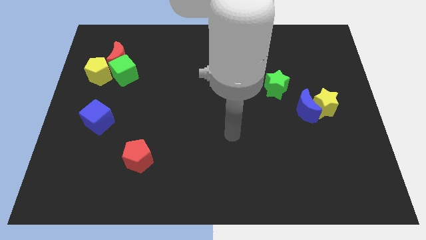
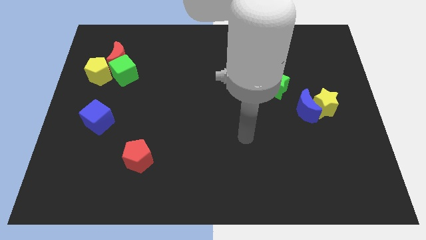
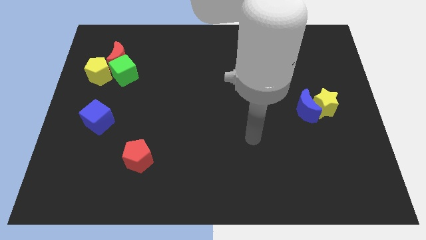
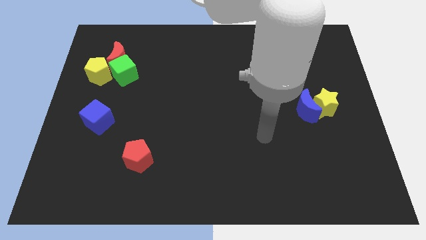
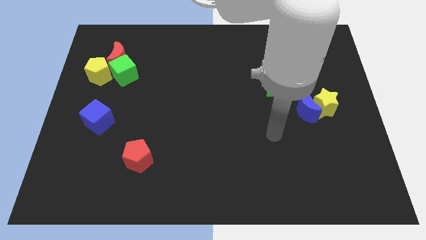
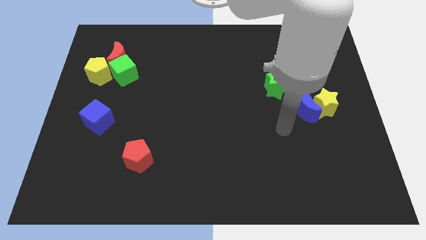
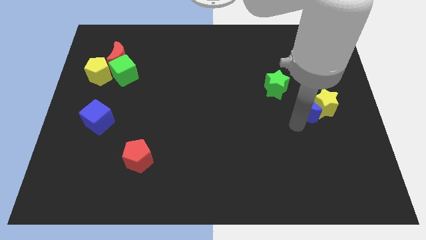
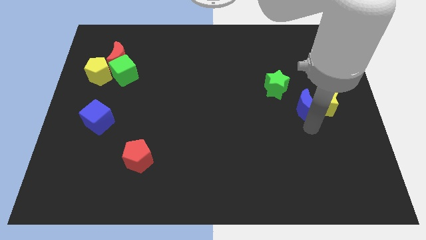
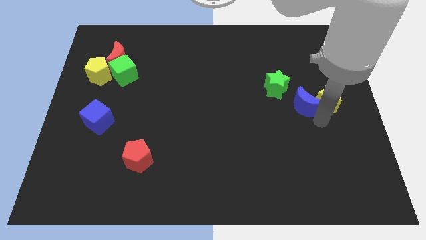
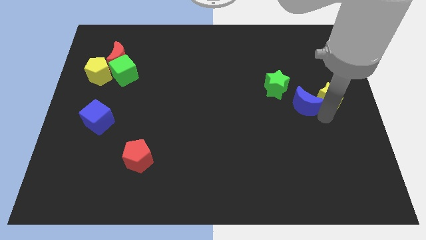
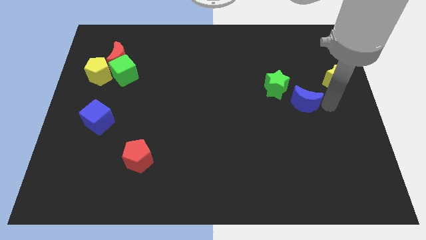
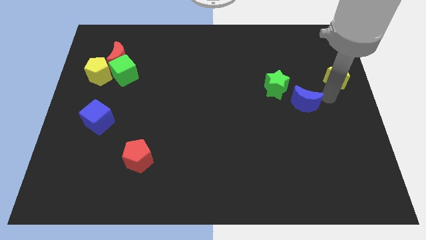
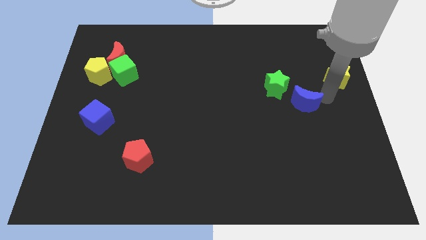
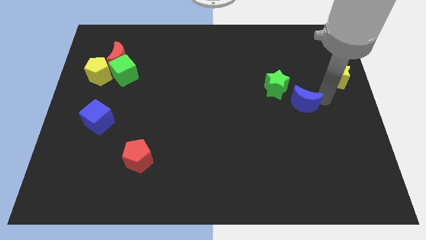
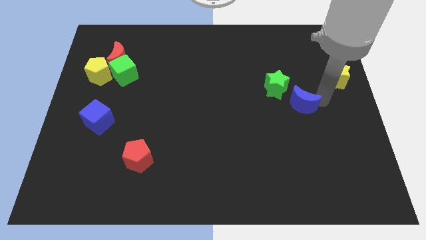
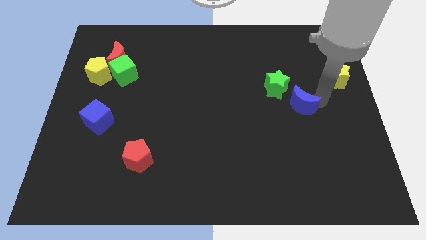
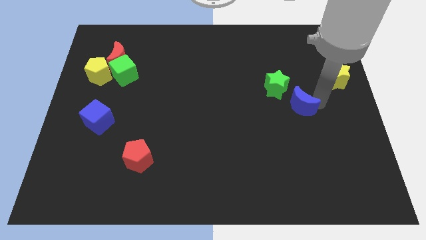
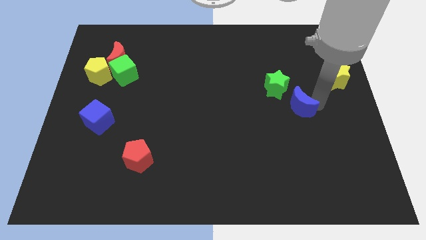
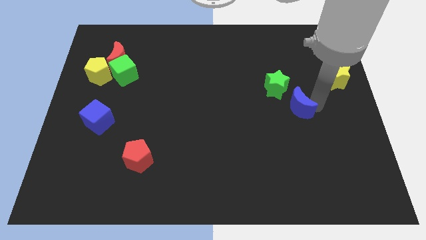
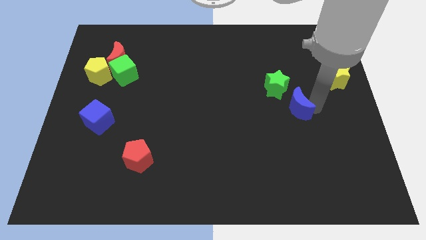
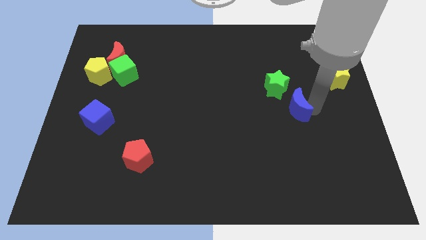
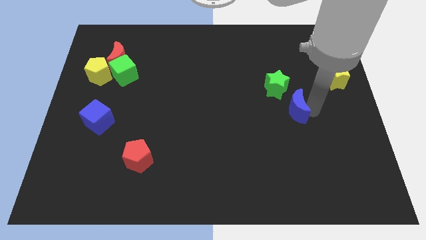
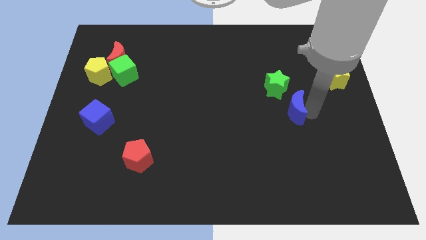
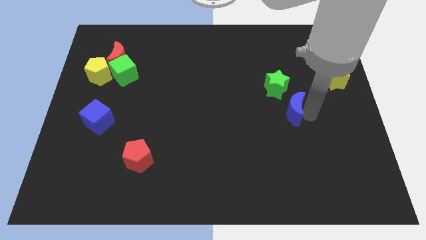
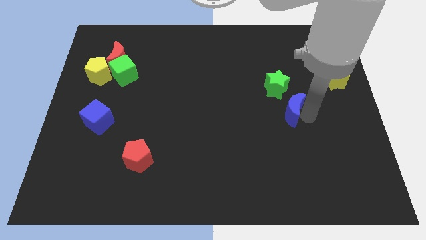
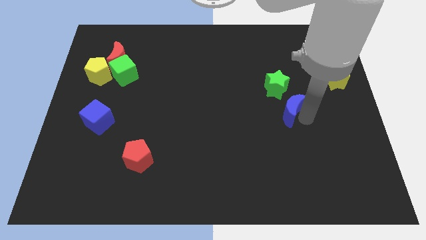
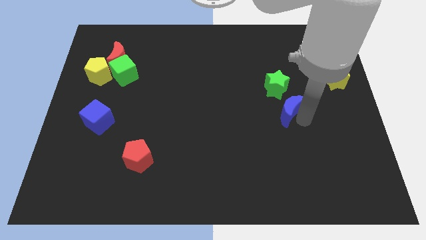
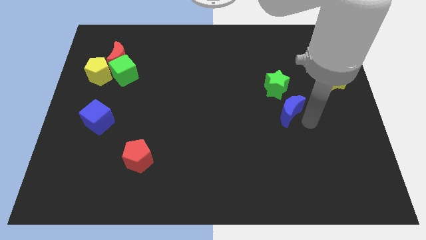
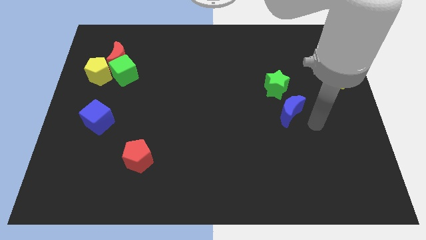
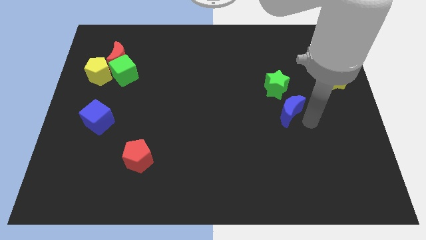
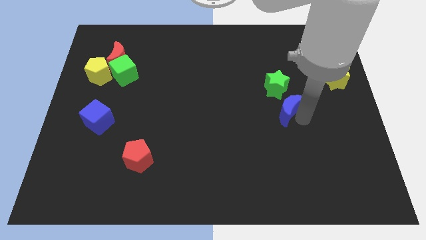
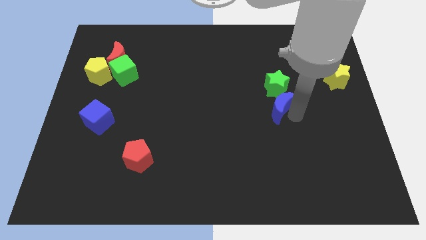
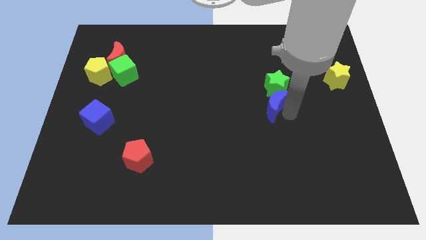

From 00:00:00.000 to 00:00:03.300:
slide the blue moon left a little bit

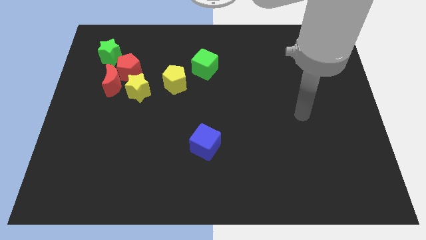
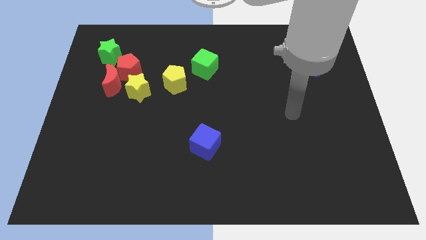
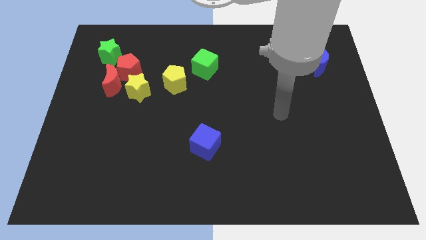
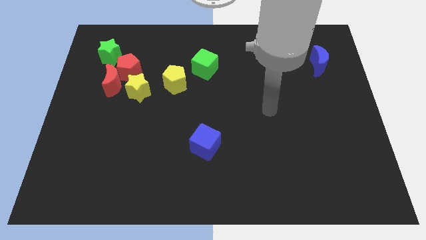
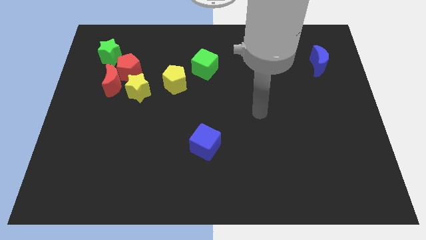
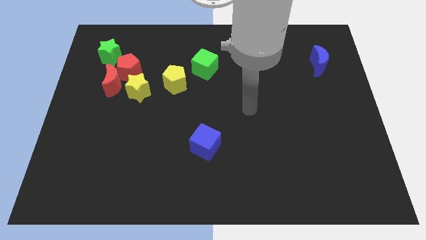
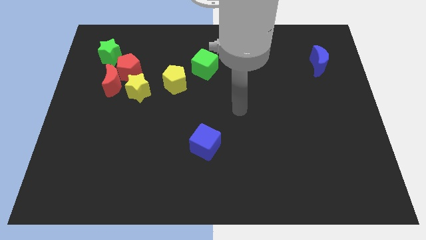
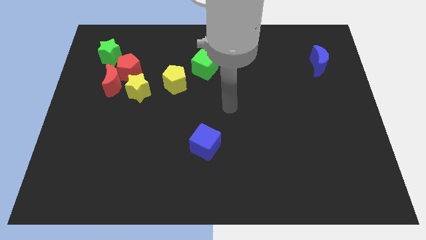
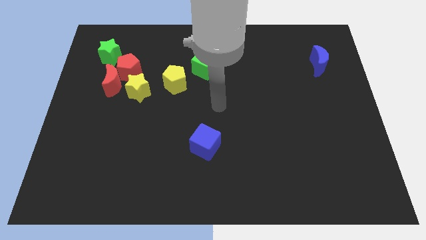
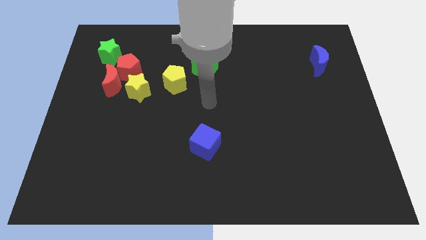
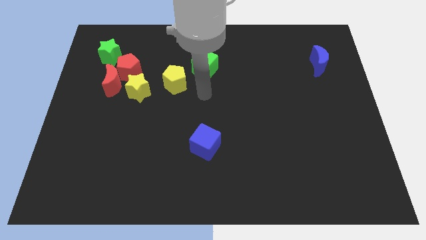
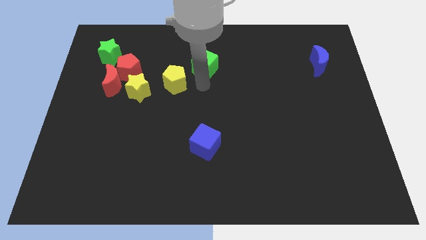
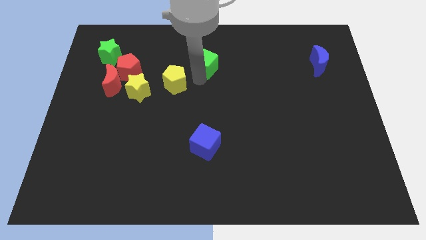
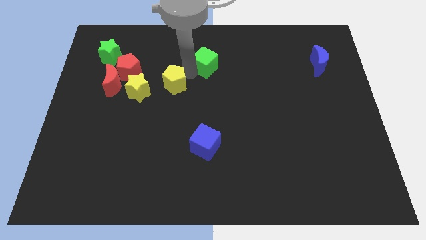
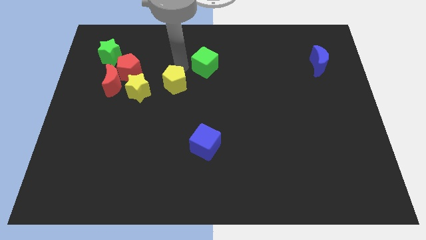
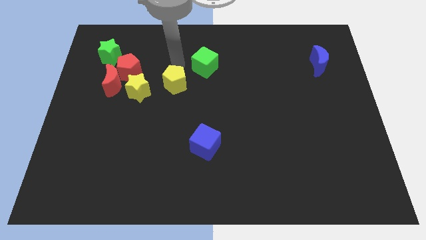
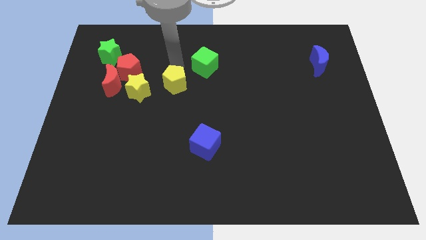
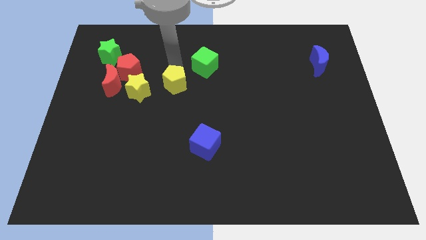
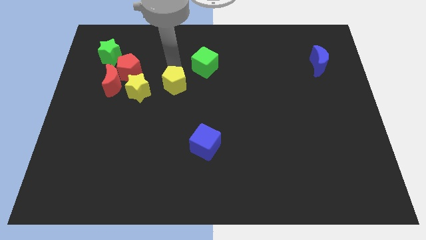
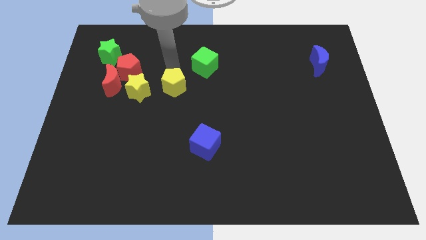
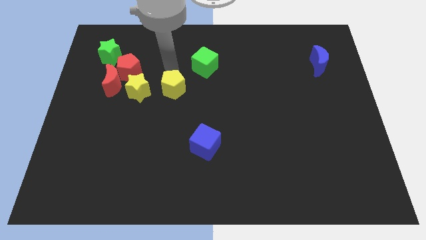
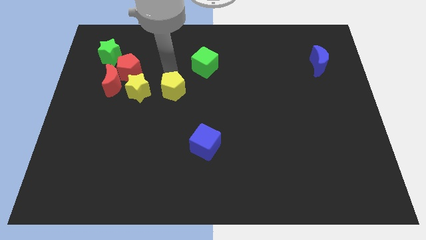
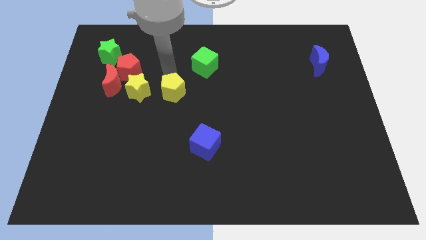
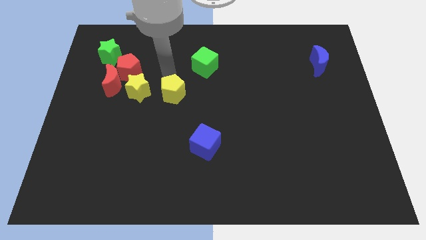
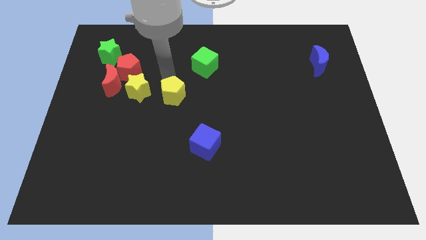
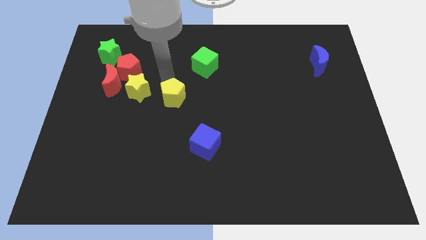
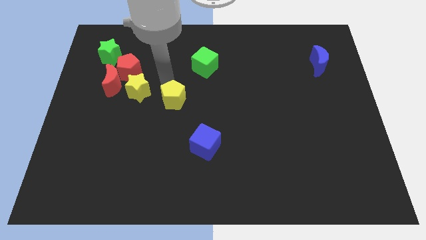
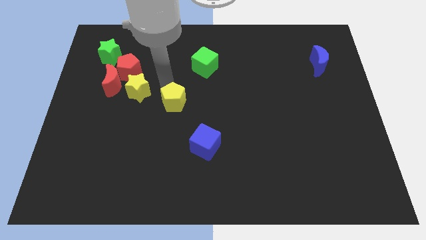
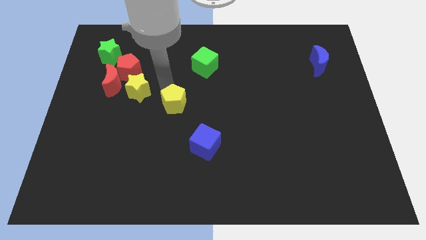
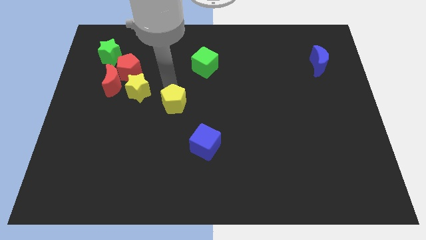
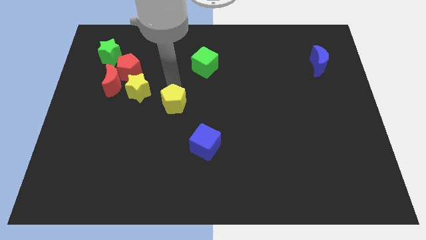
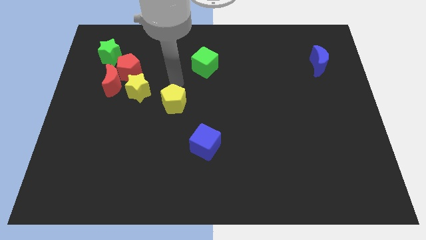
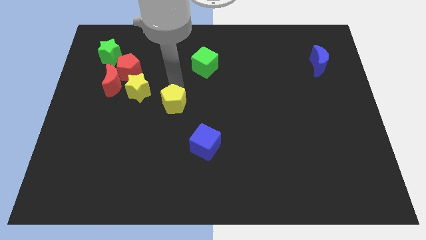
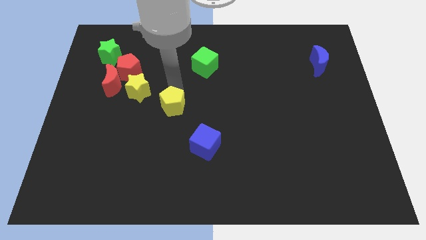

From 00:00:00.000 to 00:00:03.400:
push the yellow pentagon somewhat down

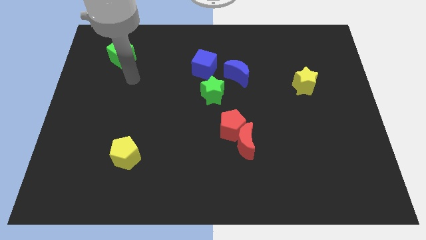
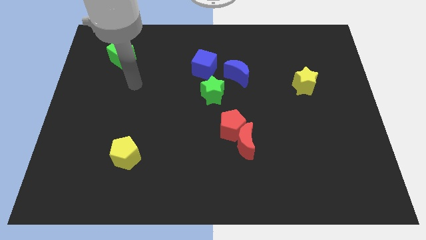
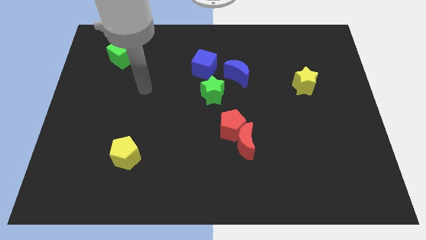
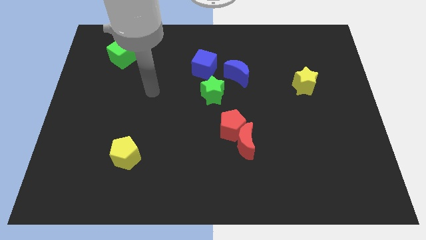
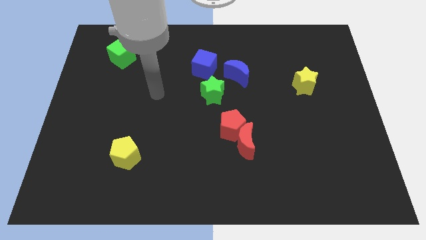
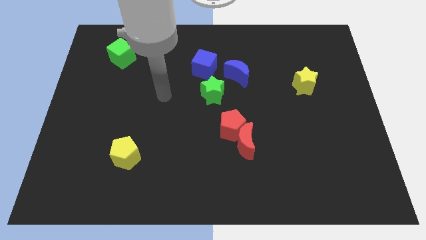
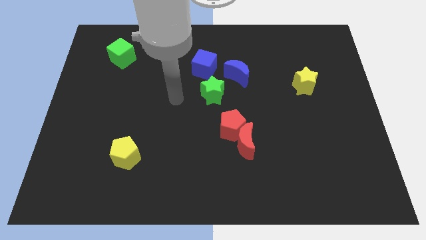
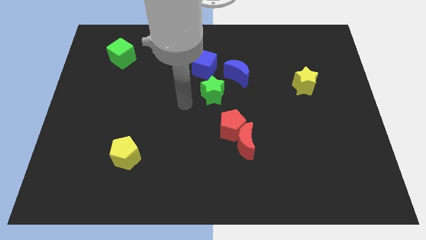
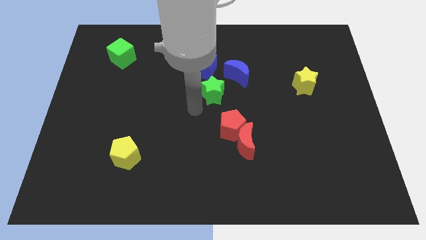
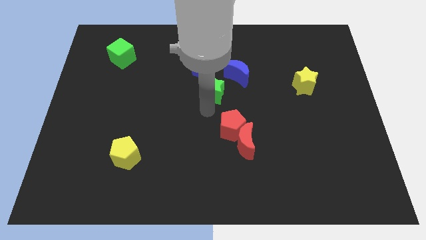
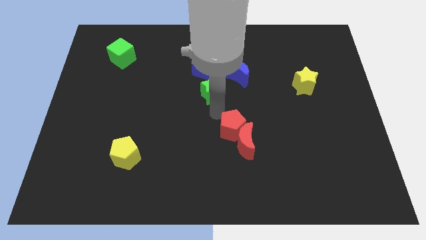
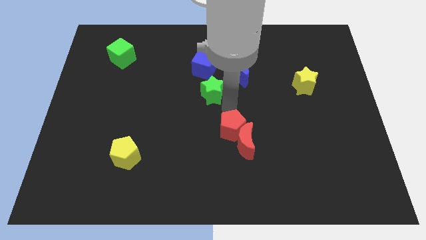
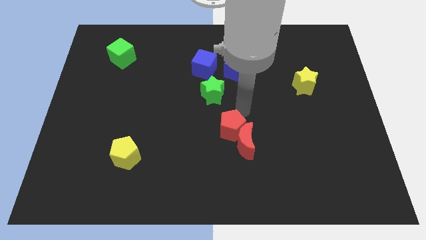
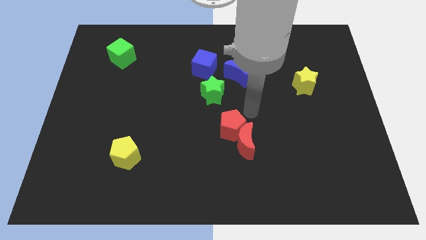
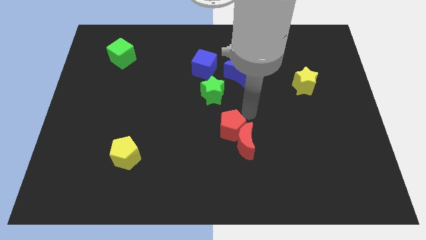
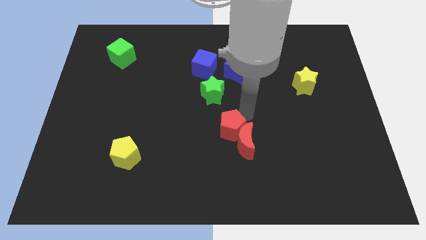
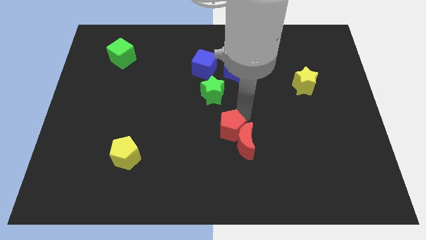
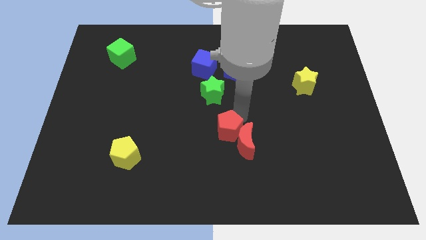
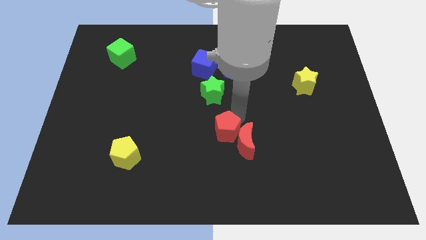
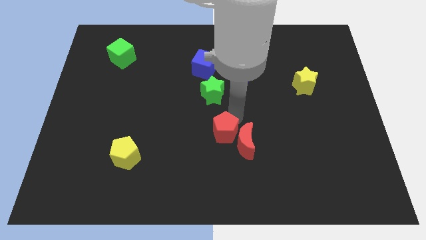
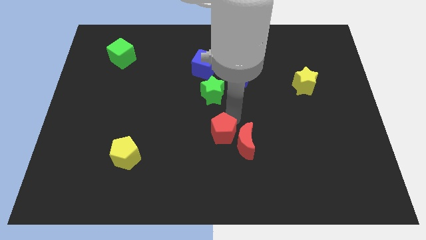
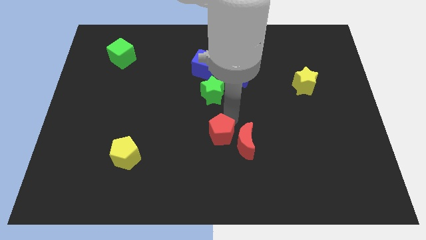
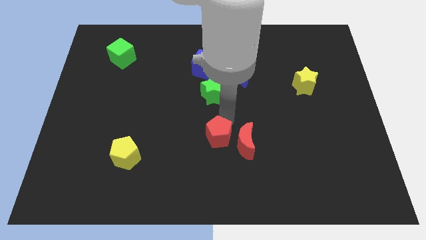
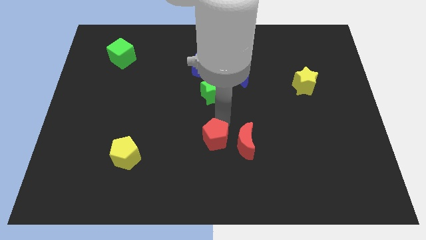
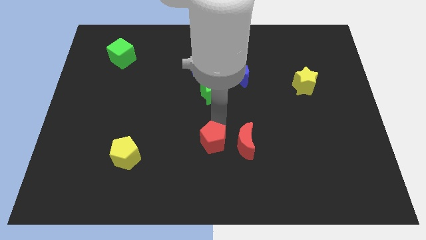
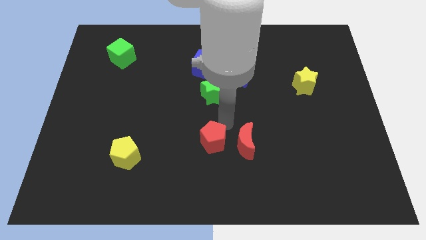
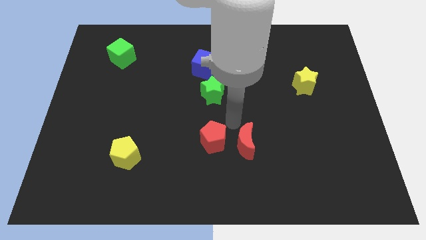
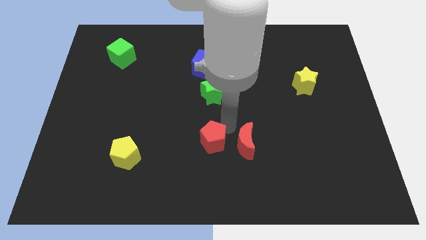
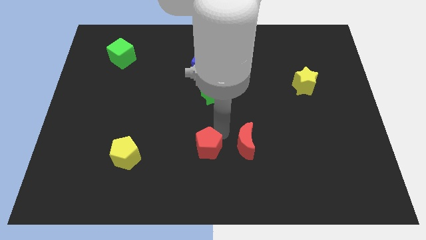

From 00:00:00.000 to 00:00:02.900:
slightly move the red pentagon down and to the left
